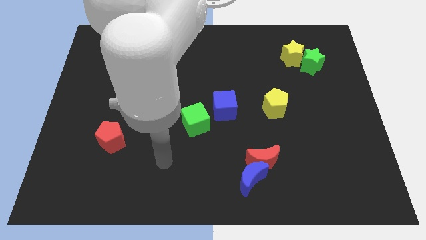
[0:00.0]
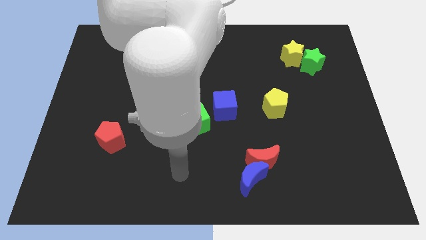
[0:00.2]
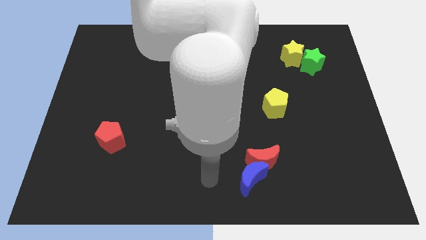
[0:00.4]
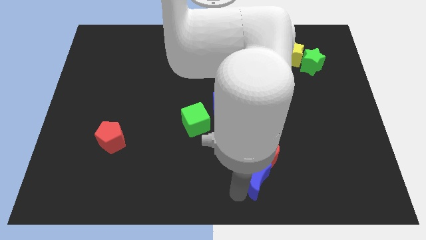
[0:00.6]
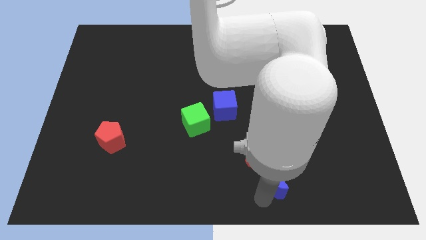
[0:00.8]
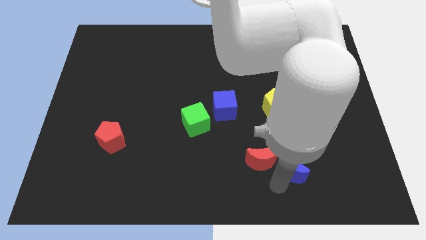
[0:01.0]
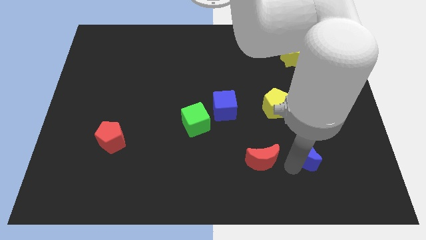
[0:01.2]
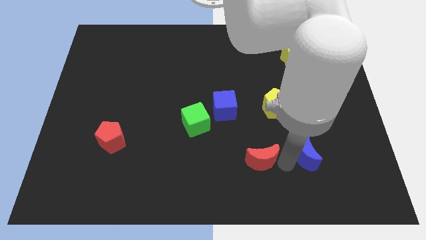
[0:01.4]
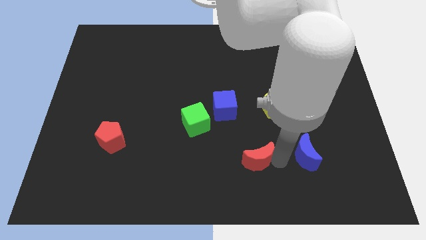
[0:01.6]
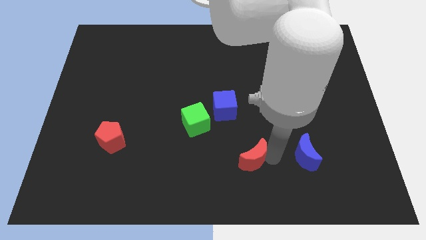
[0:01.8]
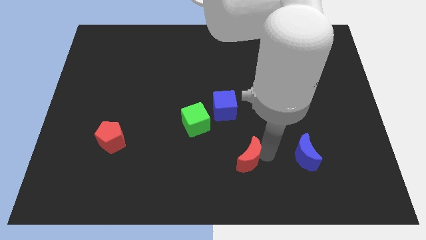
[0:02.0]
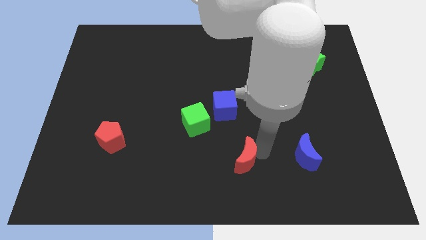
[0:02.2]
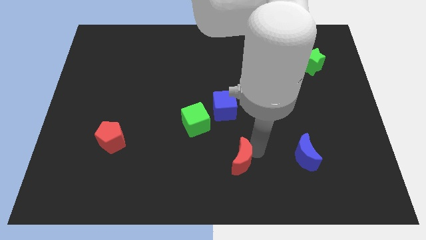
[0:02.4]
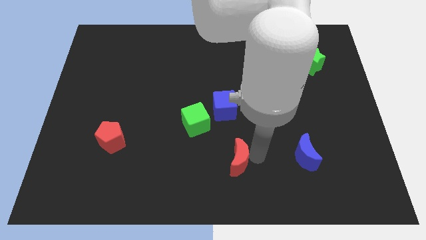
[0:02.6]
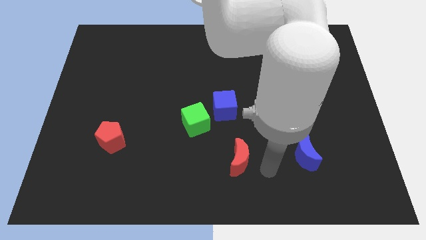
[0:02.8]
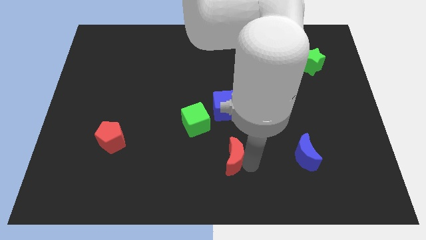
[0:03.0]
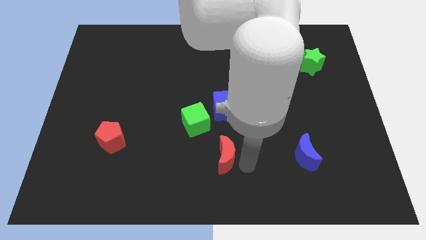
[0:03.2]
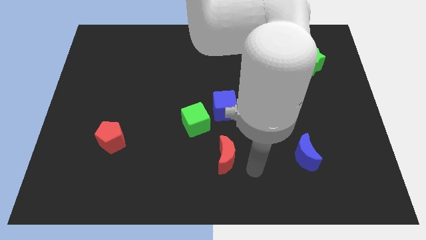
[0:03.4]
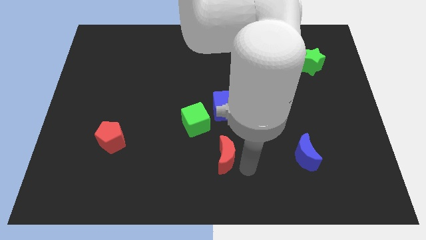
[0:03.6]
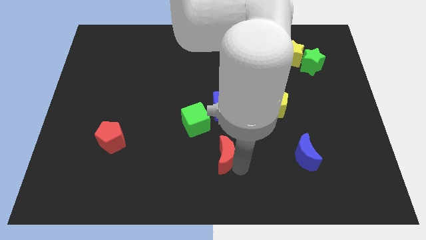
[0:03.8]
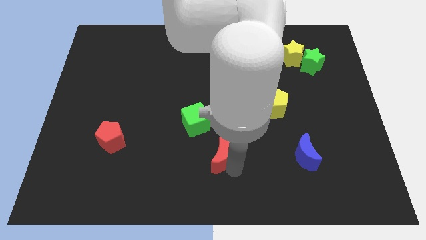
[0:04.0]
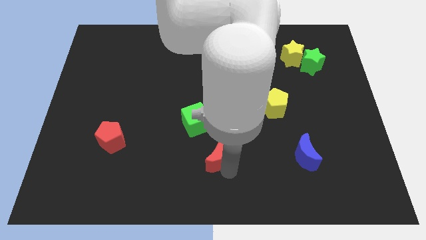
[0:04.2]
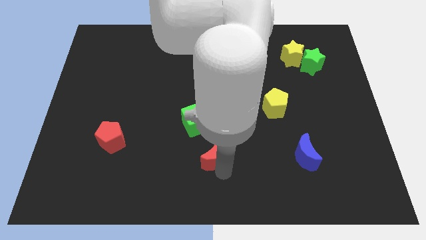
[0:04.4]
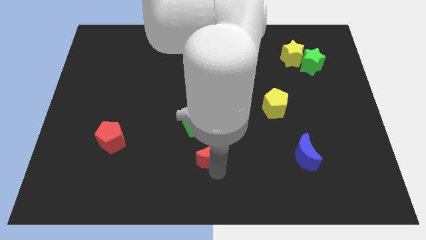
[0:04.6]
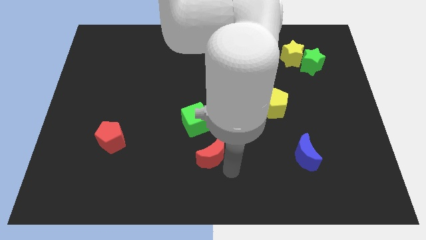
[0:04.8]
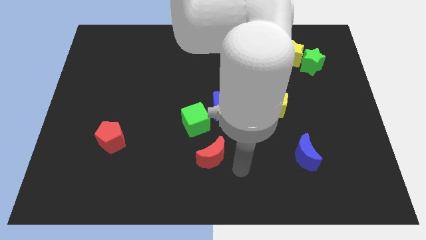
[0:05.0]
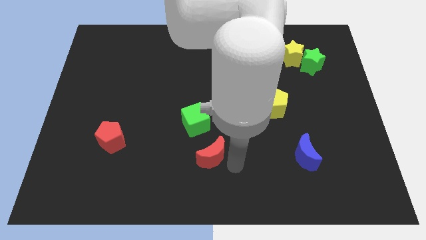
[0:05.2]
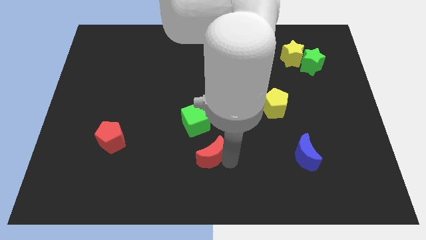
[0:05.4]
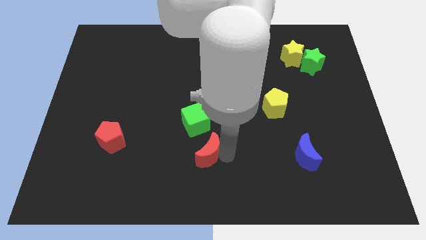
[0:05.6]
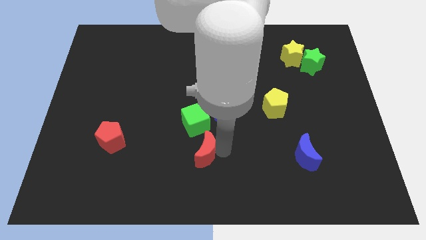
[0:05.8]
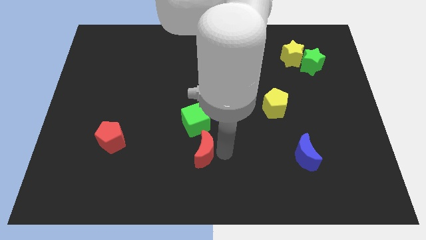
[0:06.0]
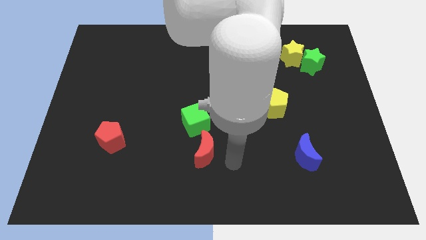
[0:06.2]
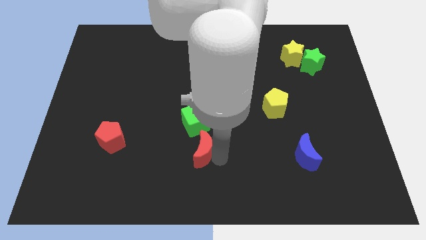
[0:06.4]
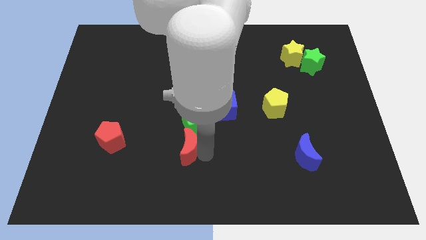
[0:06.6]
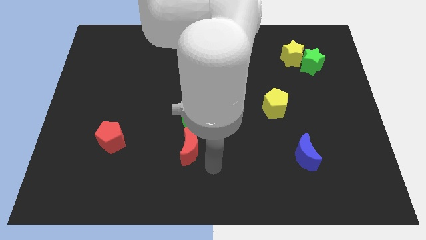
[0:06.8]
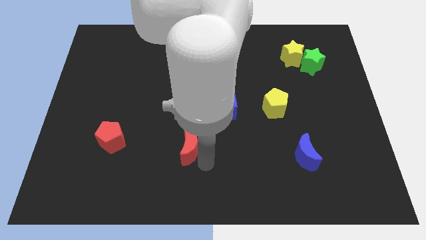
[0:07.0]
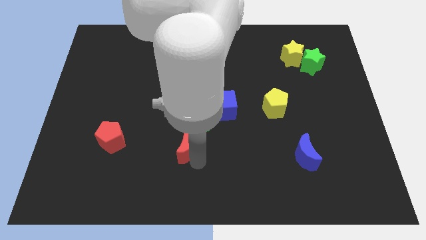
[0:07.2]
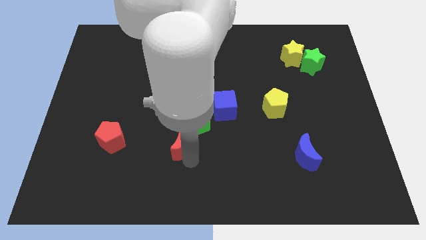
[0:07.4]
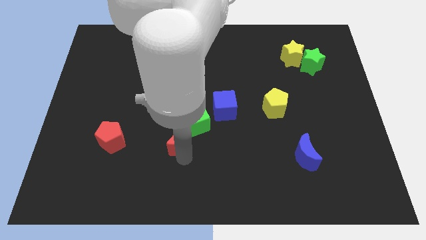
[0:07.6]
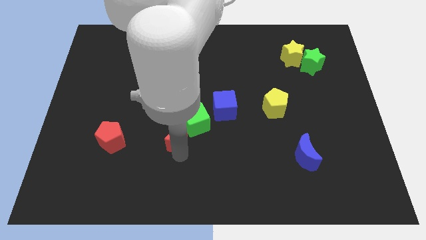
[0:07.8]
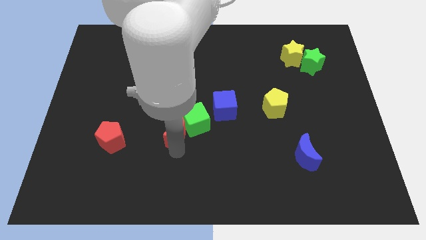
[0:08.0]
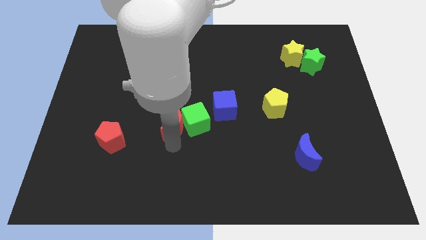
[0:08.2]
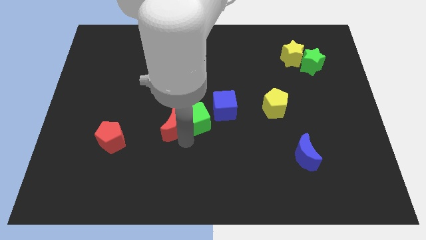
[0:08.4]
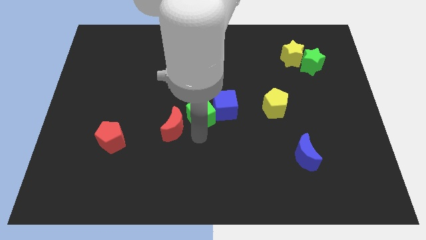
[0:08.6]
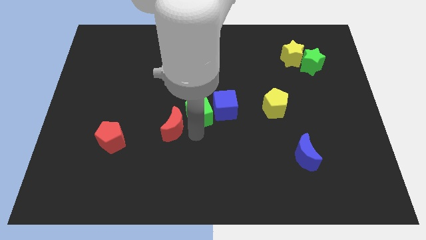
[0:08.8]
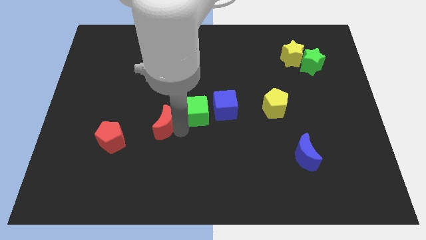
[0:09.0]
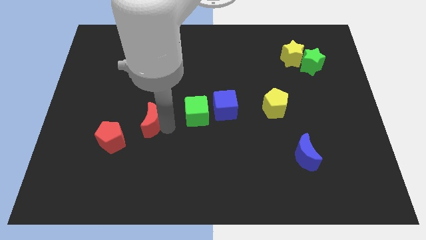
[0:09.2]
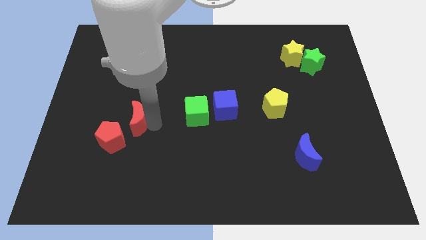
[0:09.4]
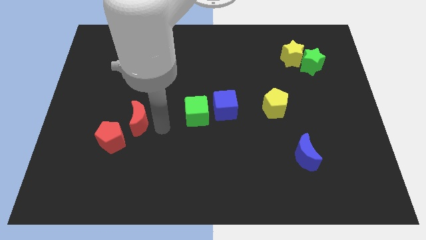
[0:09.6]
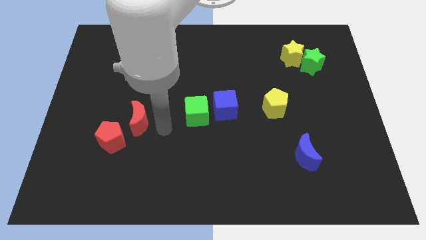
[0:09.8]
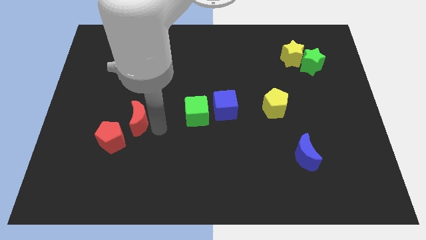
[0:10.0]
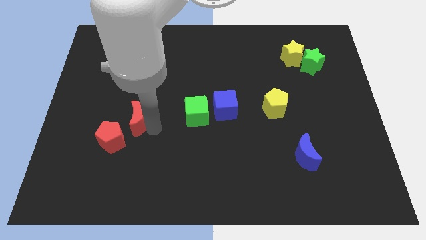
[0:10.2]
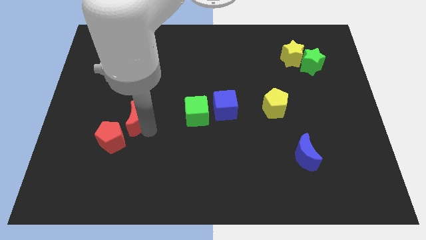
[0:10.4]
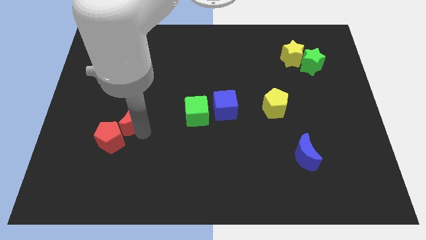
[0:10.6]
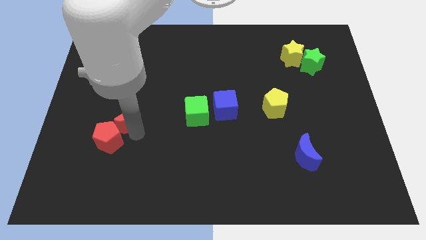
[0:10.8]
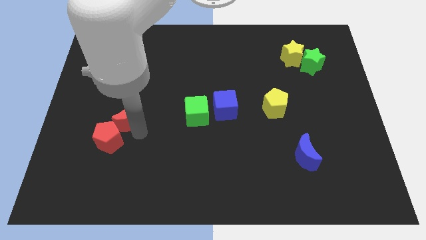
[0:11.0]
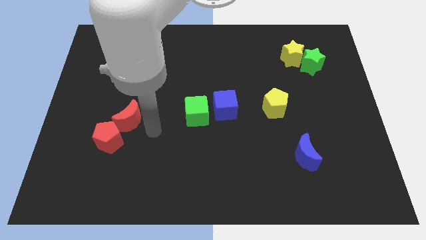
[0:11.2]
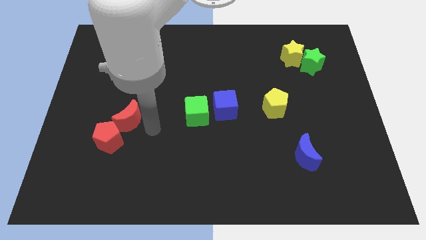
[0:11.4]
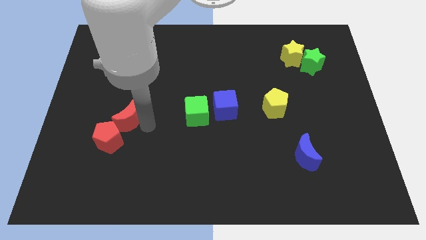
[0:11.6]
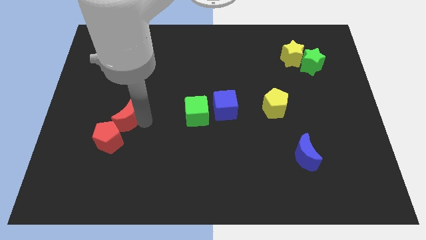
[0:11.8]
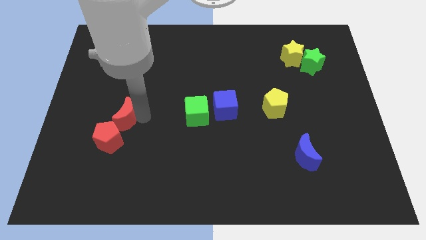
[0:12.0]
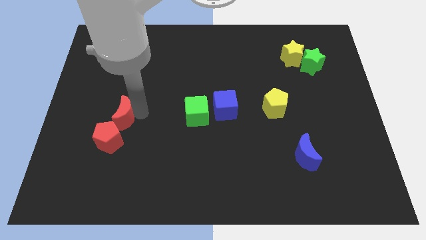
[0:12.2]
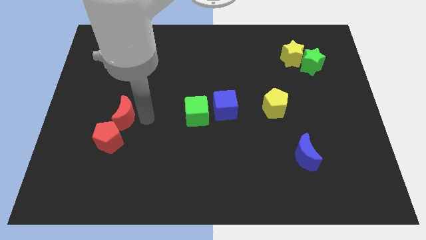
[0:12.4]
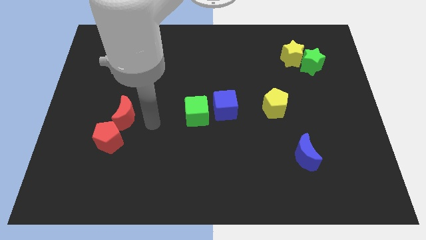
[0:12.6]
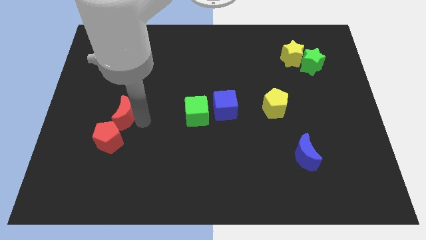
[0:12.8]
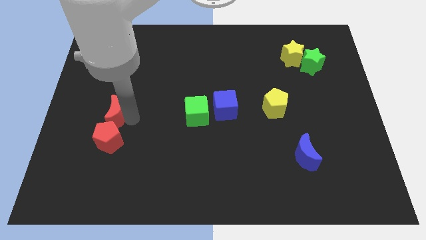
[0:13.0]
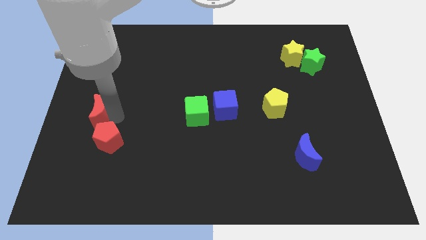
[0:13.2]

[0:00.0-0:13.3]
put the red moon to the center left
